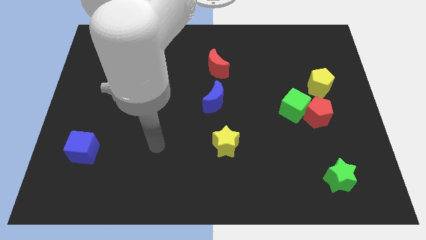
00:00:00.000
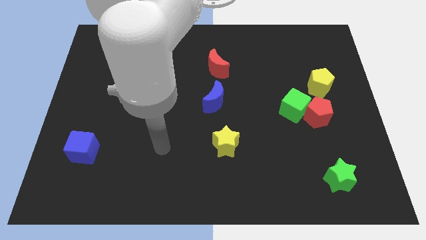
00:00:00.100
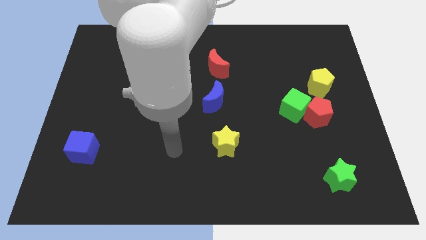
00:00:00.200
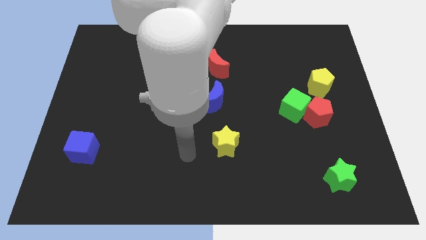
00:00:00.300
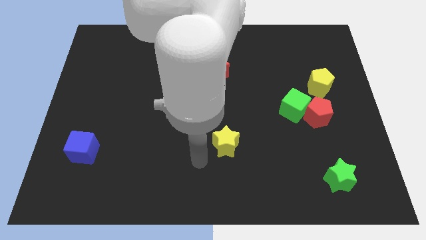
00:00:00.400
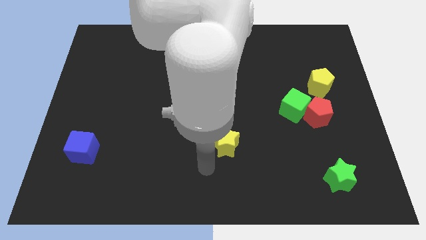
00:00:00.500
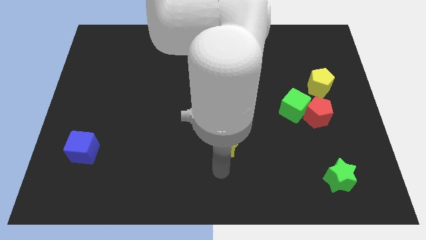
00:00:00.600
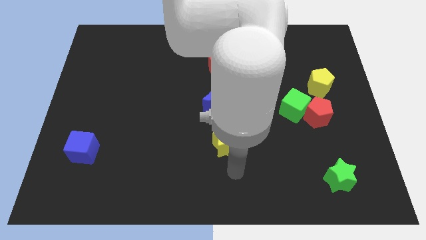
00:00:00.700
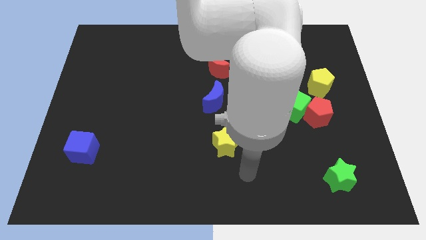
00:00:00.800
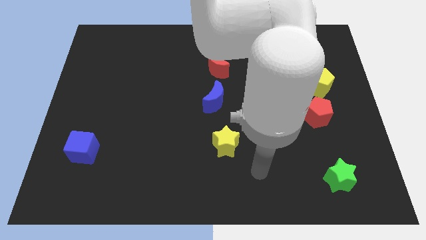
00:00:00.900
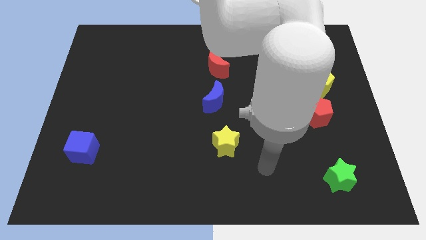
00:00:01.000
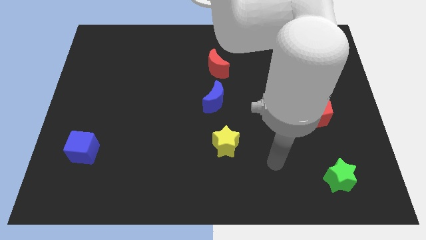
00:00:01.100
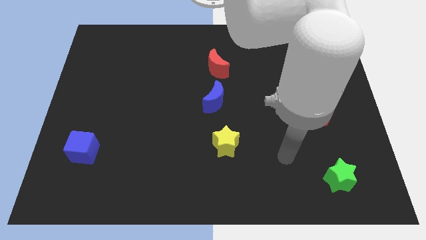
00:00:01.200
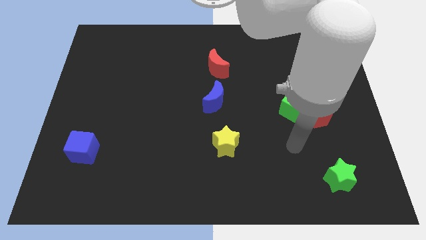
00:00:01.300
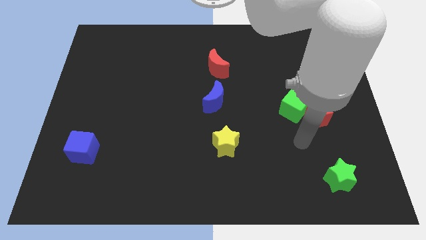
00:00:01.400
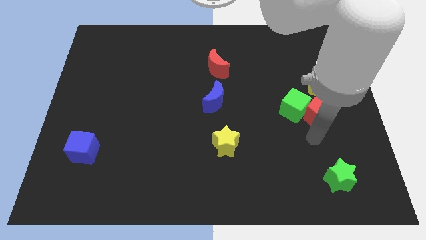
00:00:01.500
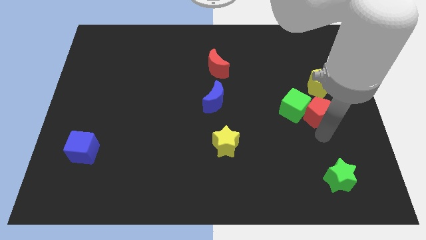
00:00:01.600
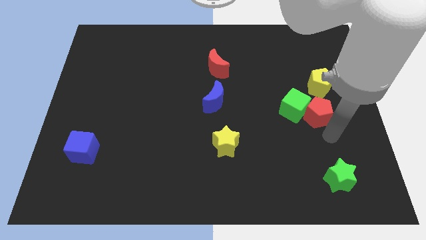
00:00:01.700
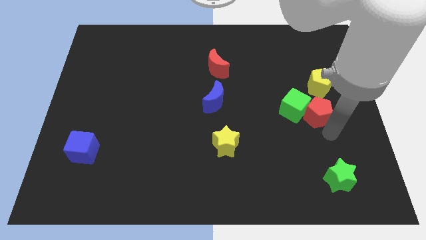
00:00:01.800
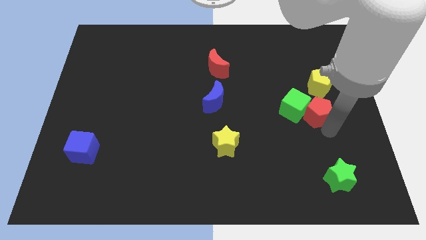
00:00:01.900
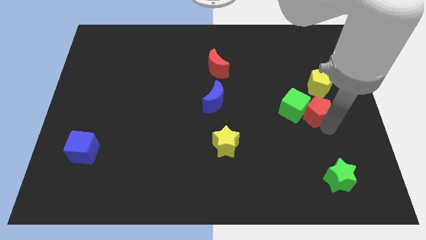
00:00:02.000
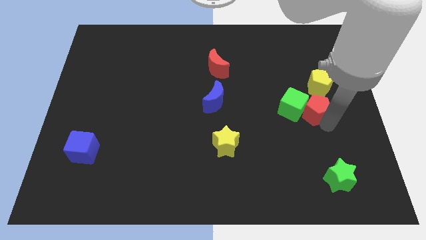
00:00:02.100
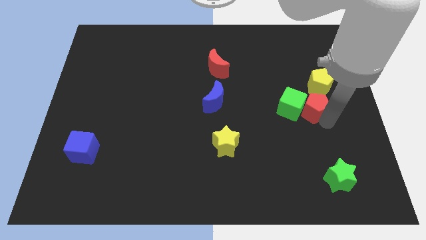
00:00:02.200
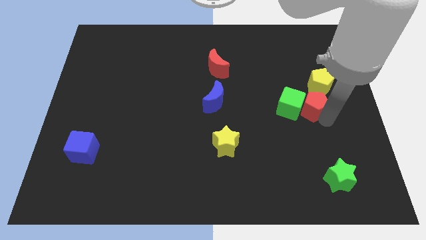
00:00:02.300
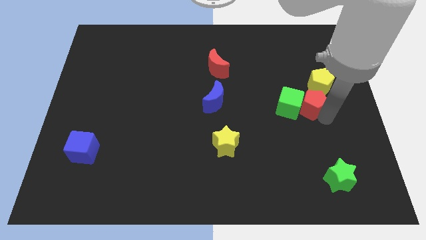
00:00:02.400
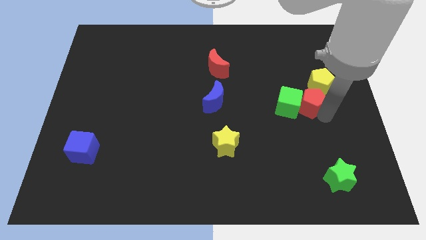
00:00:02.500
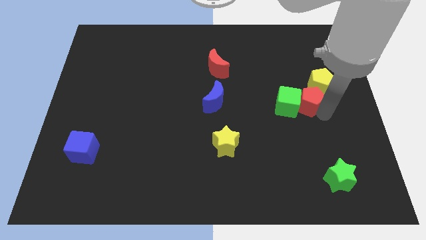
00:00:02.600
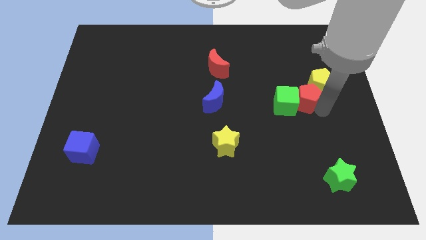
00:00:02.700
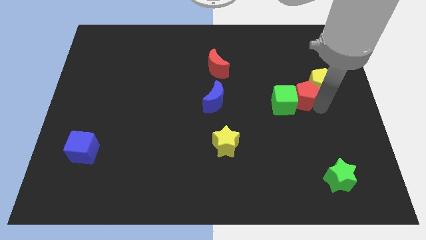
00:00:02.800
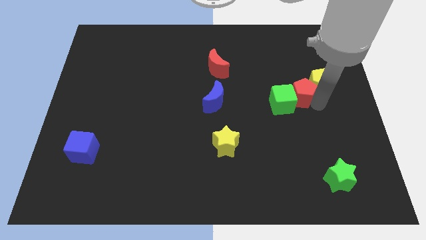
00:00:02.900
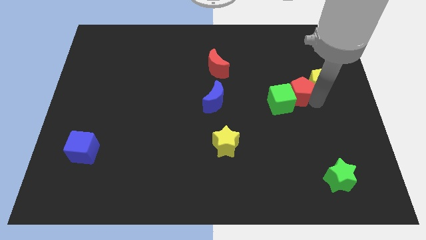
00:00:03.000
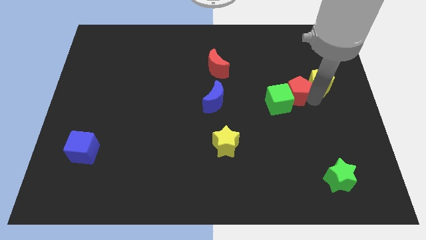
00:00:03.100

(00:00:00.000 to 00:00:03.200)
move the red pentagon upwards and left slightly

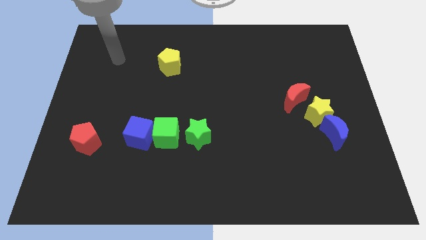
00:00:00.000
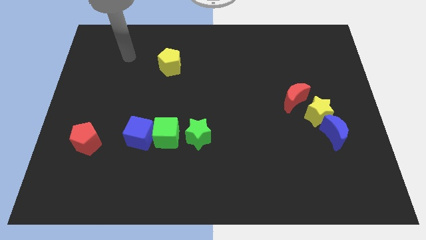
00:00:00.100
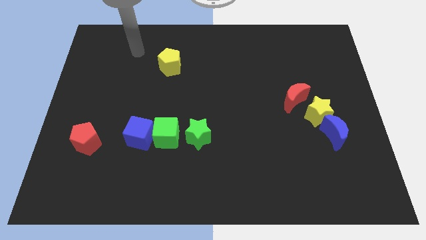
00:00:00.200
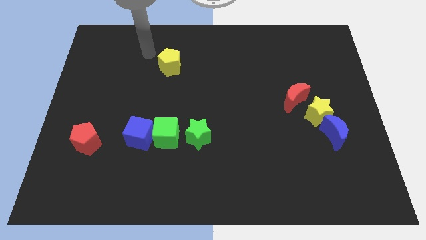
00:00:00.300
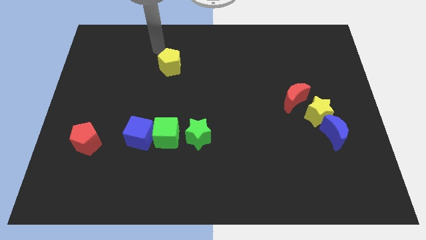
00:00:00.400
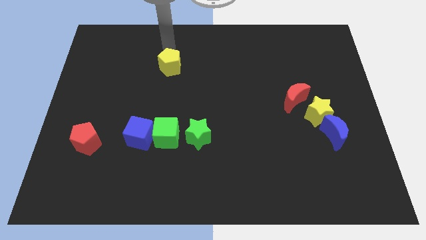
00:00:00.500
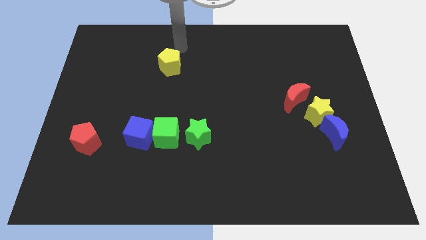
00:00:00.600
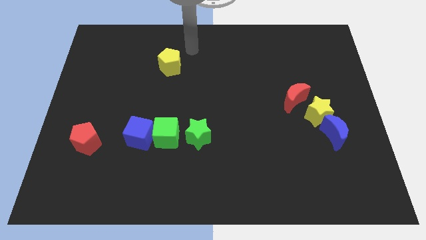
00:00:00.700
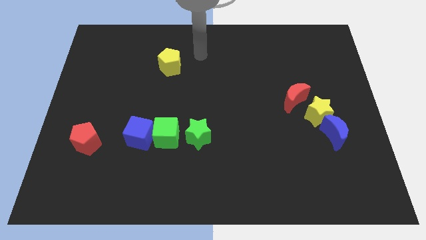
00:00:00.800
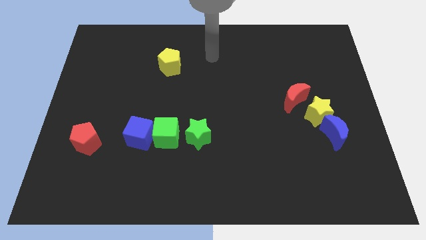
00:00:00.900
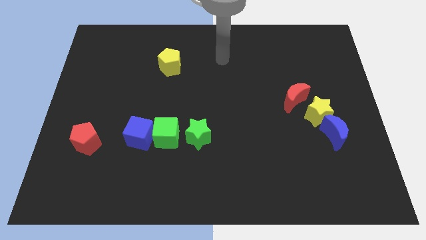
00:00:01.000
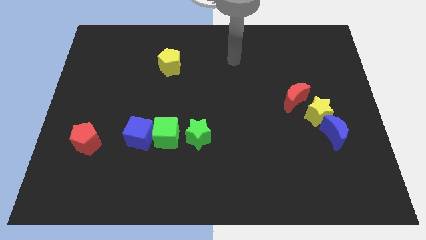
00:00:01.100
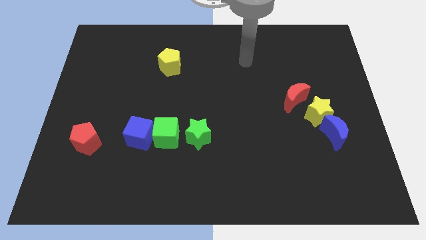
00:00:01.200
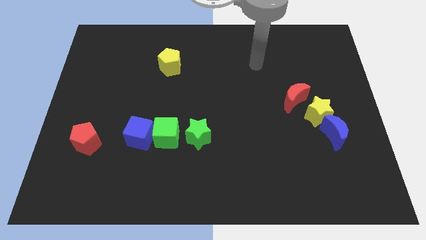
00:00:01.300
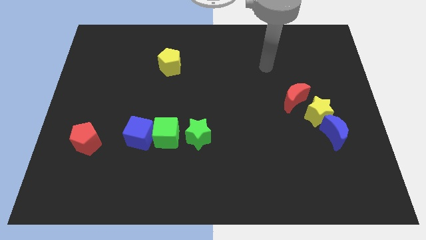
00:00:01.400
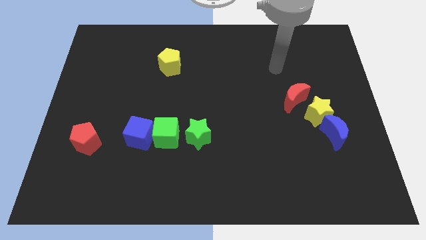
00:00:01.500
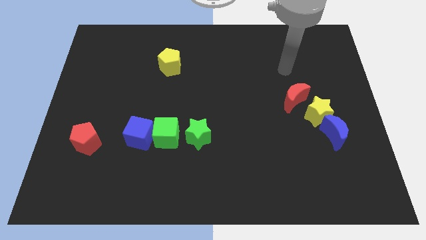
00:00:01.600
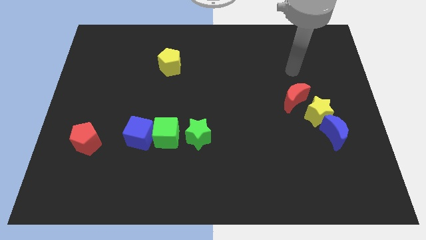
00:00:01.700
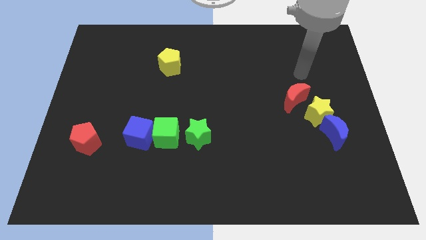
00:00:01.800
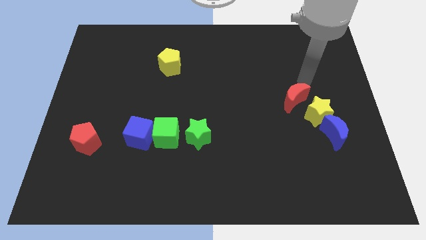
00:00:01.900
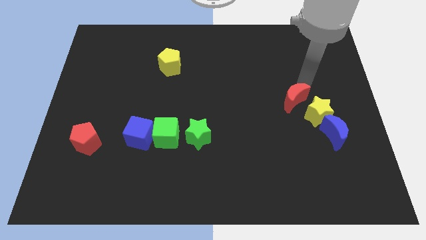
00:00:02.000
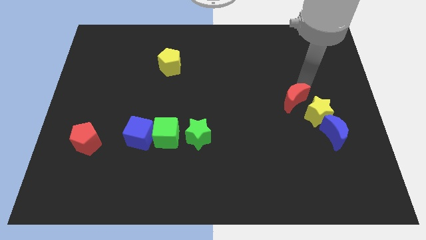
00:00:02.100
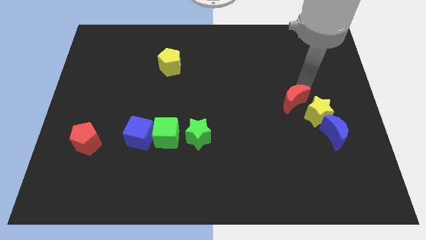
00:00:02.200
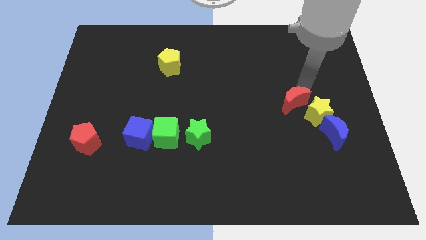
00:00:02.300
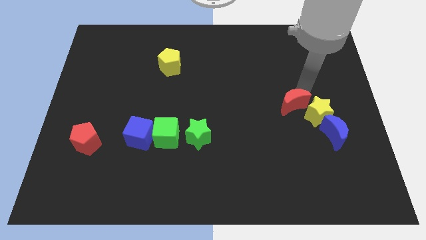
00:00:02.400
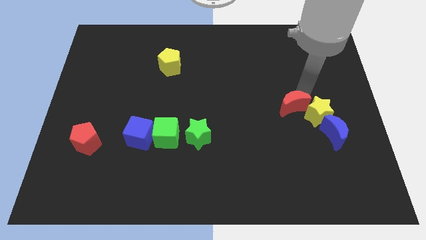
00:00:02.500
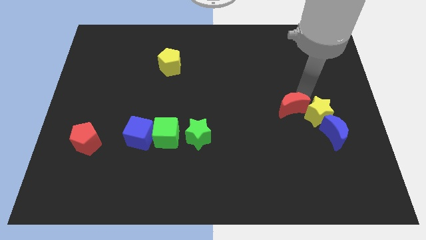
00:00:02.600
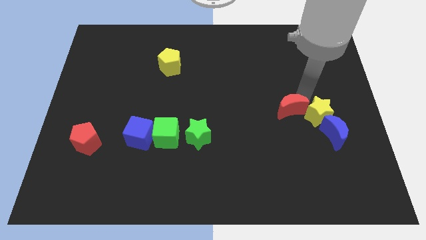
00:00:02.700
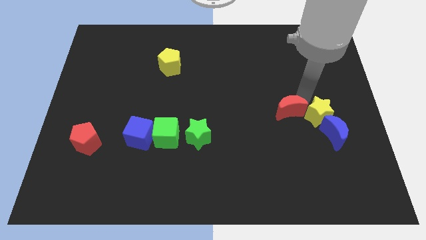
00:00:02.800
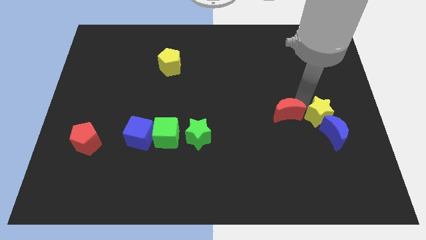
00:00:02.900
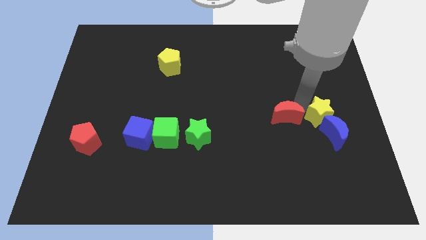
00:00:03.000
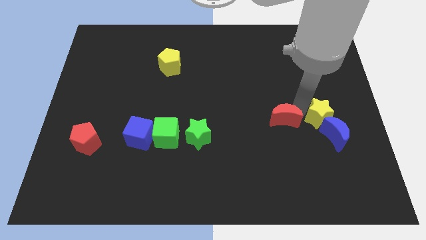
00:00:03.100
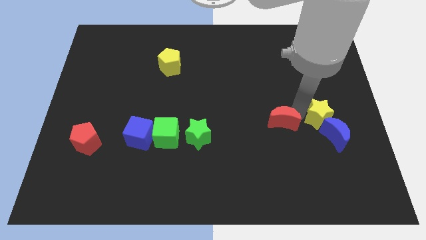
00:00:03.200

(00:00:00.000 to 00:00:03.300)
push the red moon somewhat down and then left

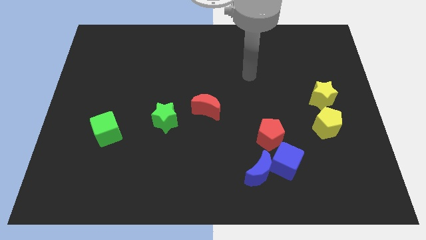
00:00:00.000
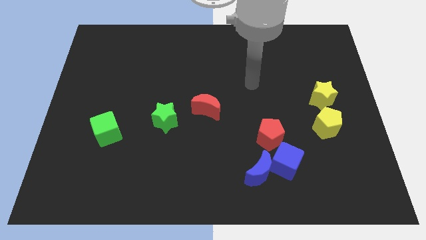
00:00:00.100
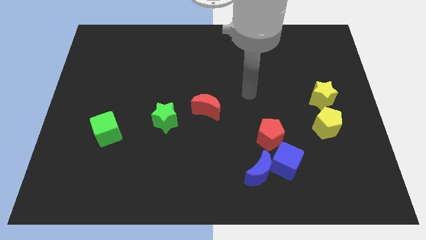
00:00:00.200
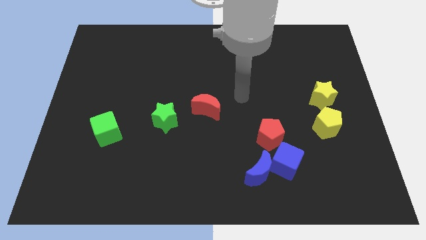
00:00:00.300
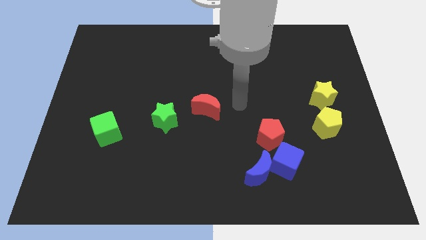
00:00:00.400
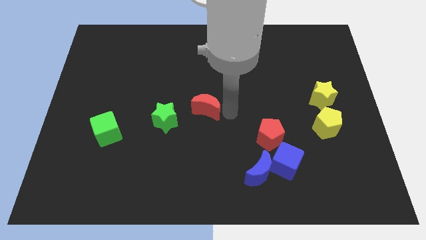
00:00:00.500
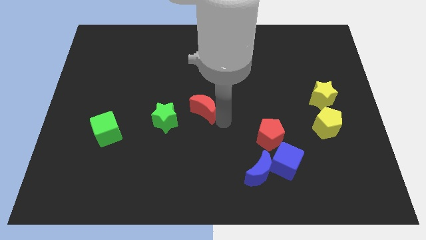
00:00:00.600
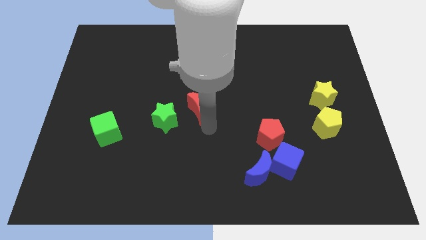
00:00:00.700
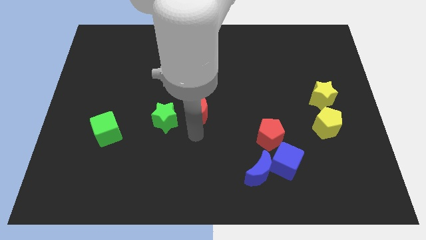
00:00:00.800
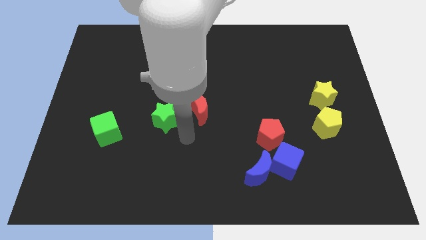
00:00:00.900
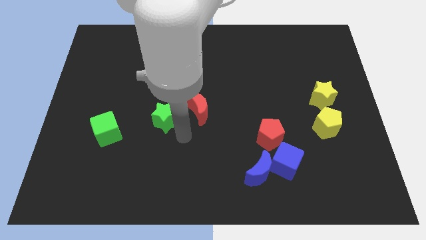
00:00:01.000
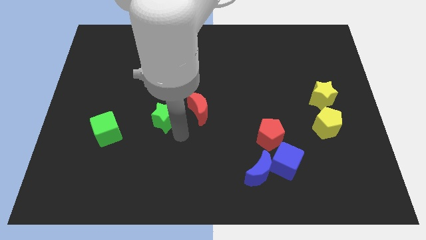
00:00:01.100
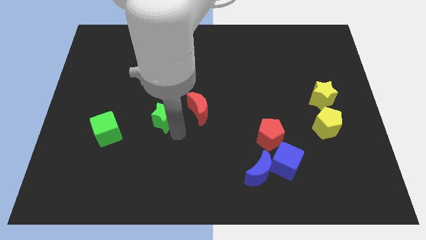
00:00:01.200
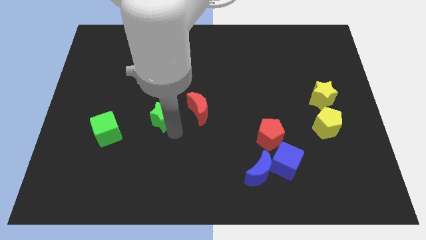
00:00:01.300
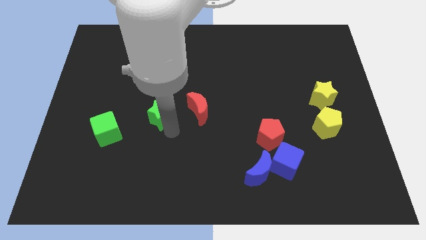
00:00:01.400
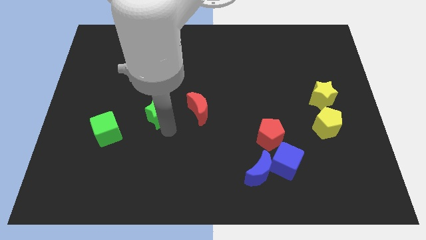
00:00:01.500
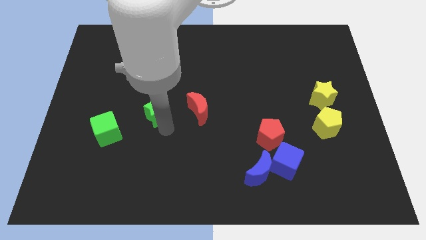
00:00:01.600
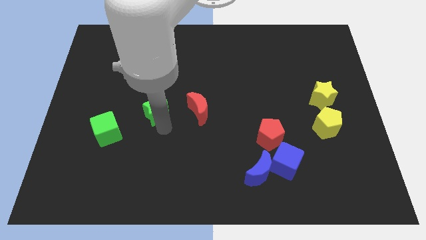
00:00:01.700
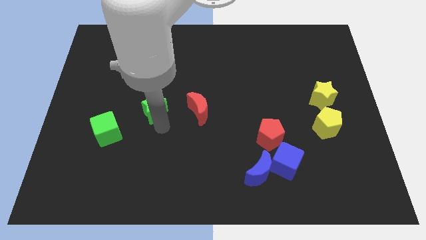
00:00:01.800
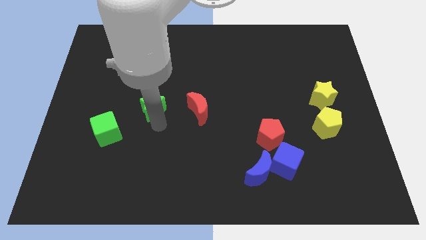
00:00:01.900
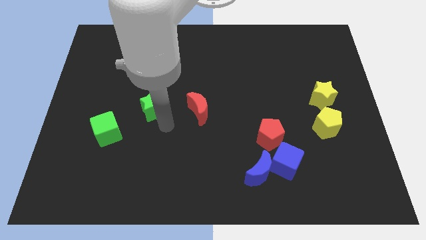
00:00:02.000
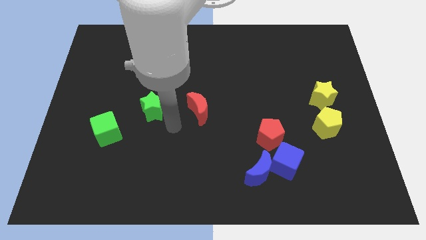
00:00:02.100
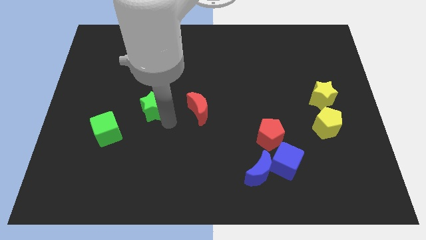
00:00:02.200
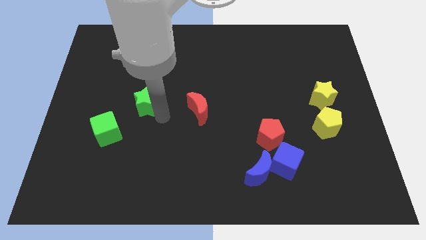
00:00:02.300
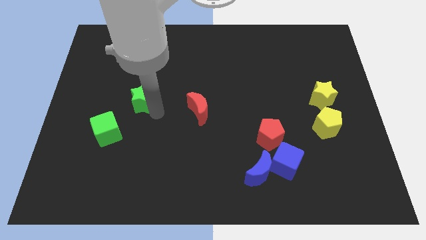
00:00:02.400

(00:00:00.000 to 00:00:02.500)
push the green star diagonally up and to the left a little
